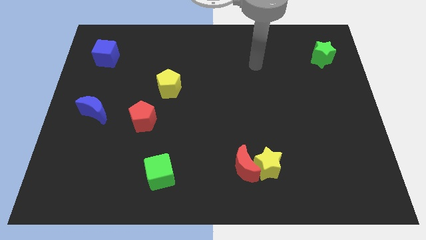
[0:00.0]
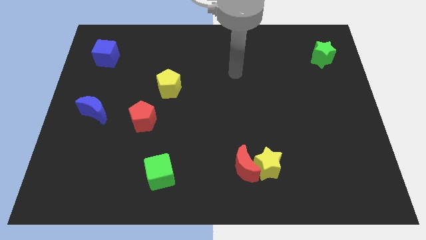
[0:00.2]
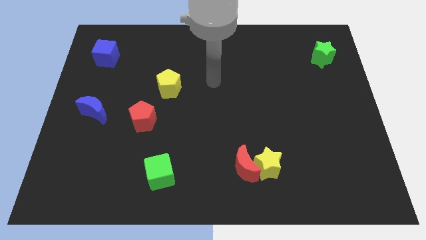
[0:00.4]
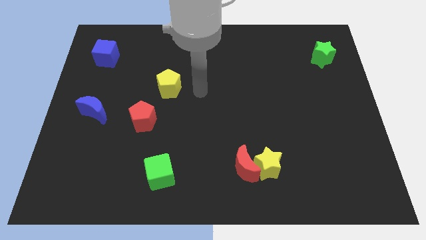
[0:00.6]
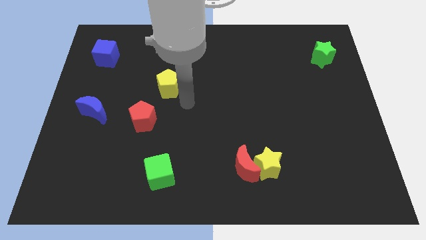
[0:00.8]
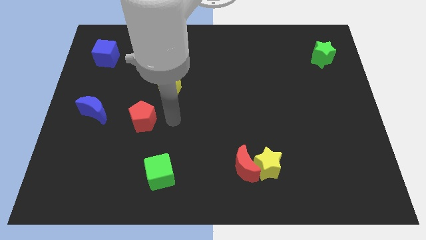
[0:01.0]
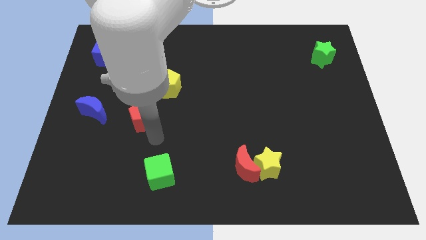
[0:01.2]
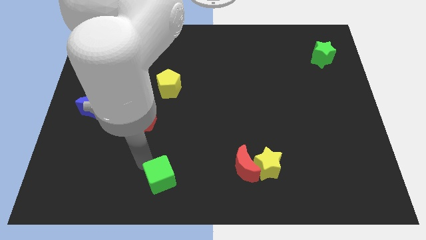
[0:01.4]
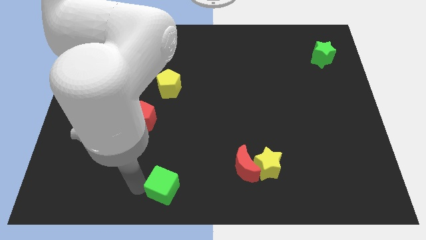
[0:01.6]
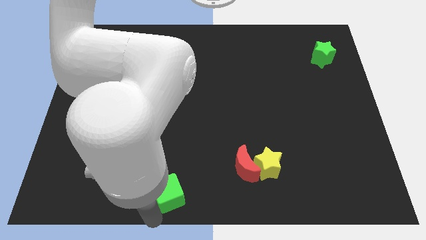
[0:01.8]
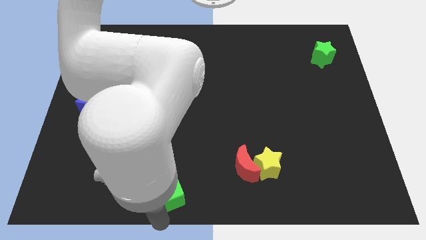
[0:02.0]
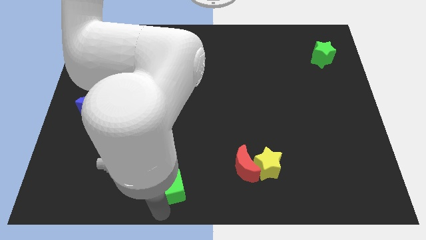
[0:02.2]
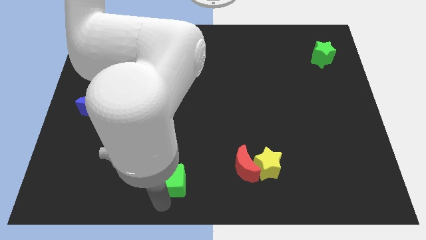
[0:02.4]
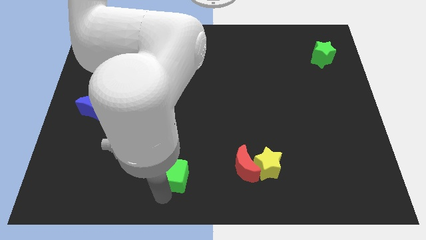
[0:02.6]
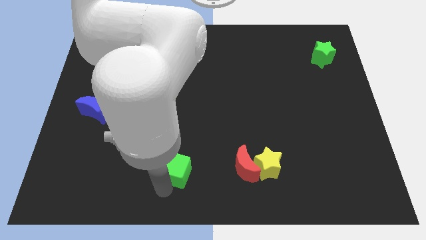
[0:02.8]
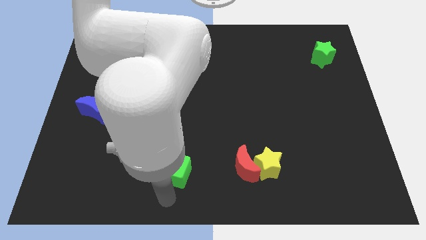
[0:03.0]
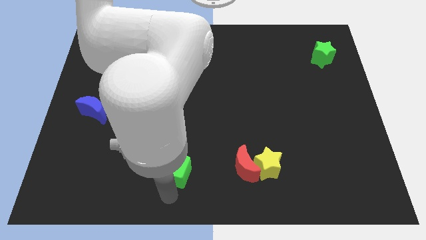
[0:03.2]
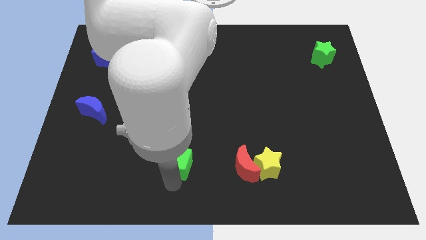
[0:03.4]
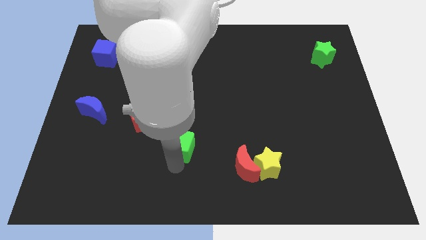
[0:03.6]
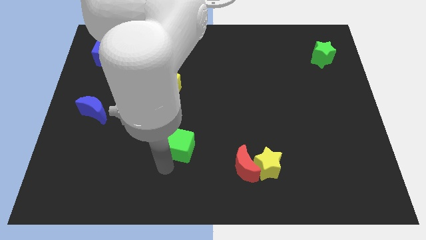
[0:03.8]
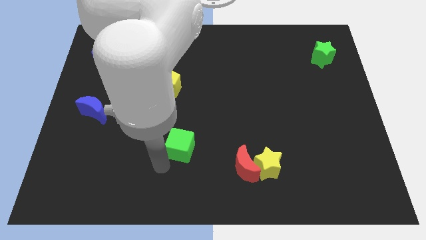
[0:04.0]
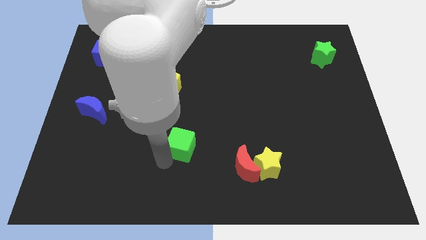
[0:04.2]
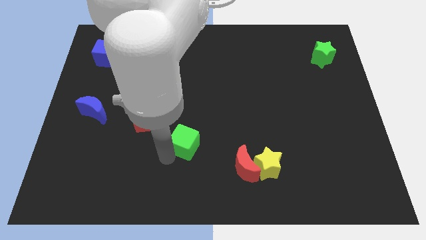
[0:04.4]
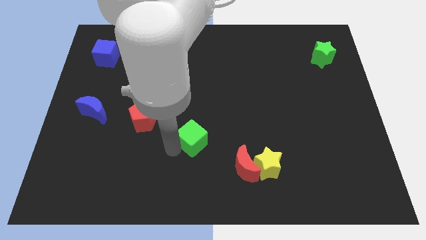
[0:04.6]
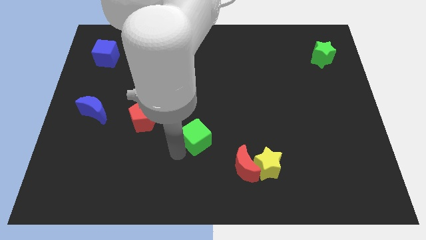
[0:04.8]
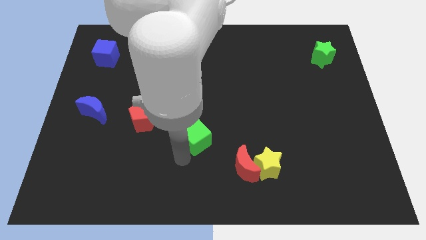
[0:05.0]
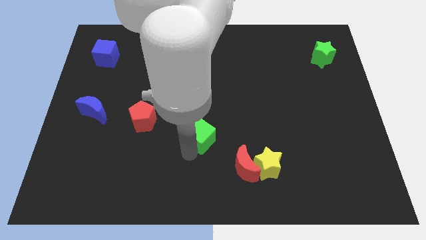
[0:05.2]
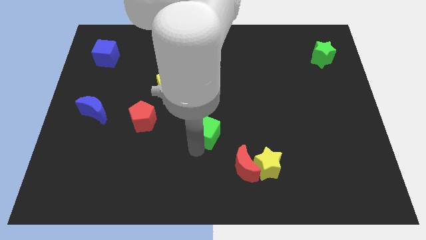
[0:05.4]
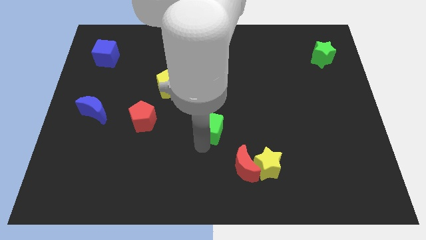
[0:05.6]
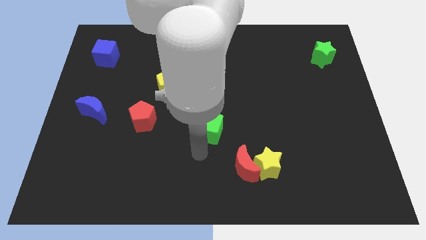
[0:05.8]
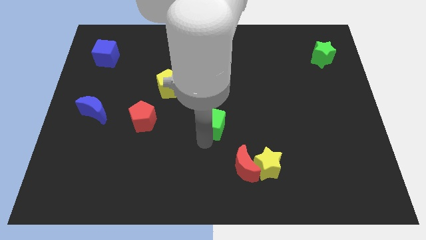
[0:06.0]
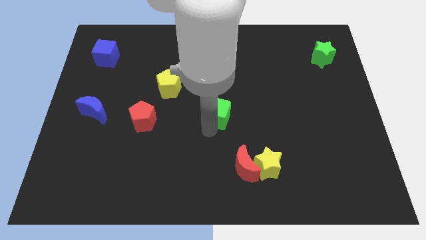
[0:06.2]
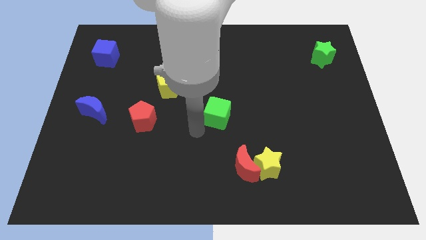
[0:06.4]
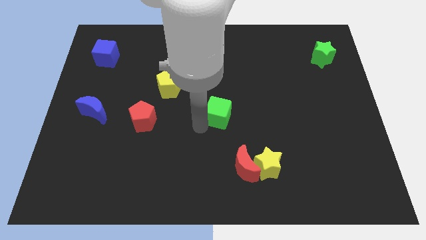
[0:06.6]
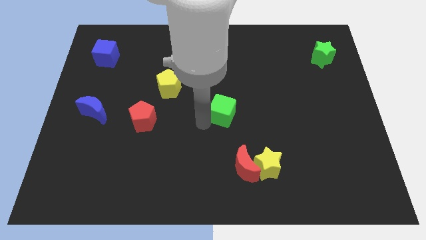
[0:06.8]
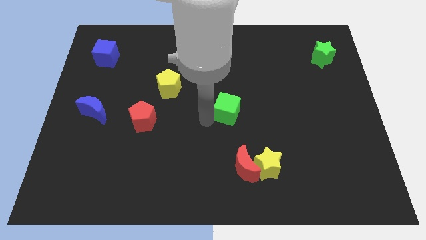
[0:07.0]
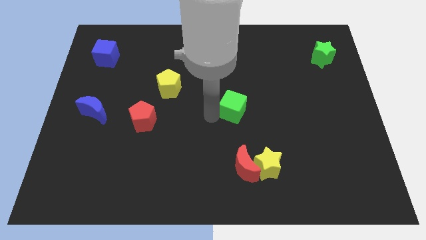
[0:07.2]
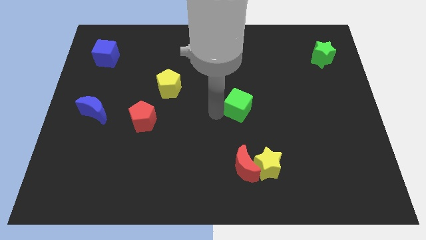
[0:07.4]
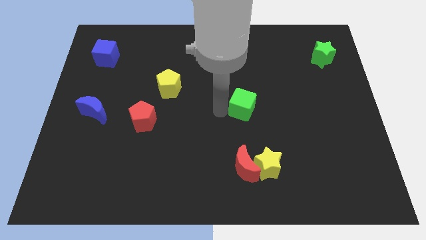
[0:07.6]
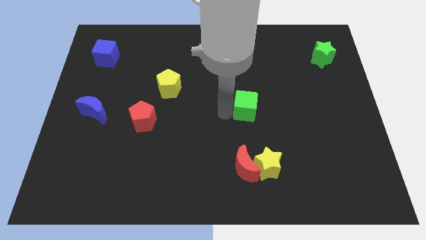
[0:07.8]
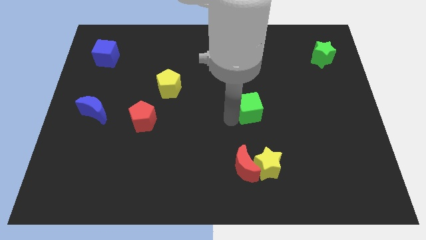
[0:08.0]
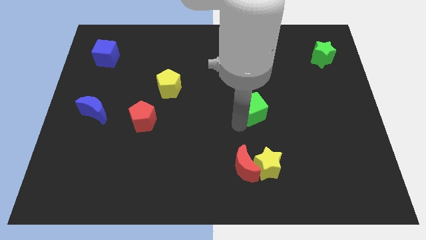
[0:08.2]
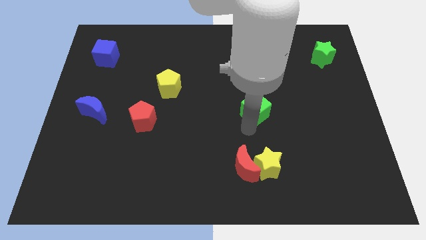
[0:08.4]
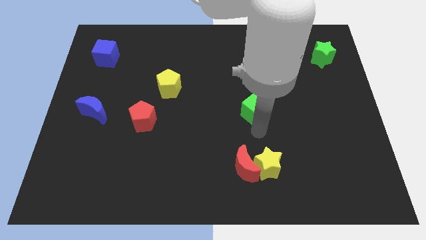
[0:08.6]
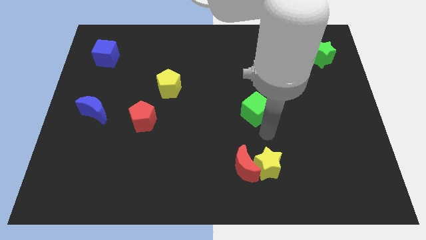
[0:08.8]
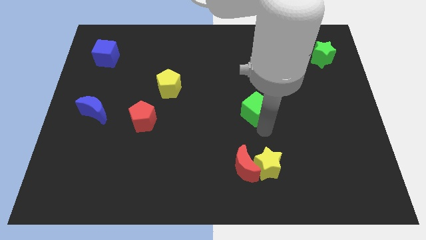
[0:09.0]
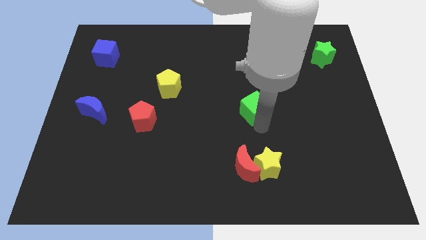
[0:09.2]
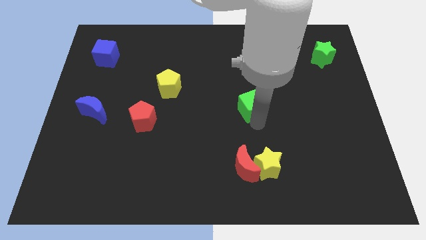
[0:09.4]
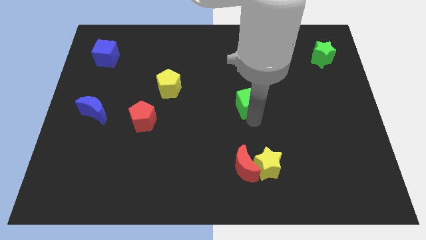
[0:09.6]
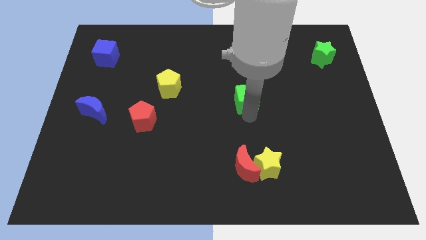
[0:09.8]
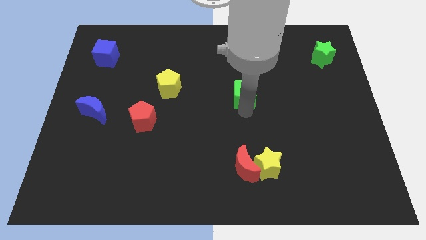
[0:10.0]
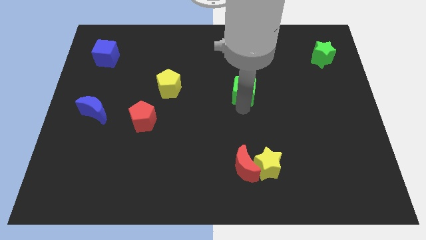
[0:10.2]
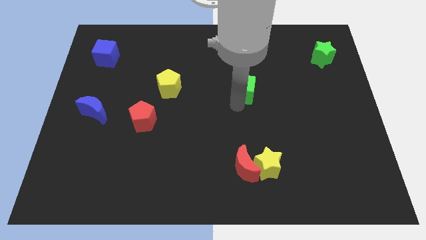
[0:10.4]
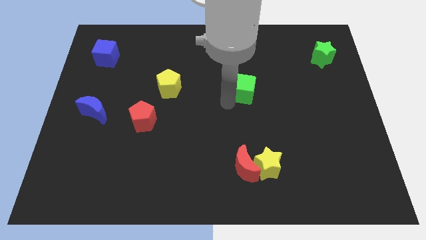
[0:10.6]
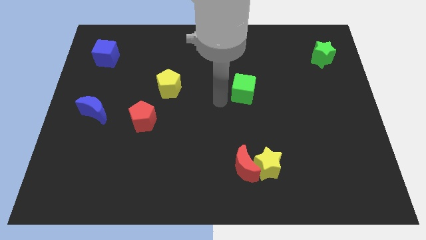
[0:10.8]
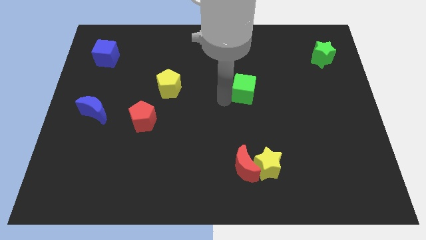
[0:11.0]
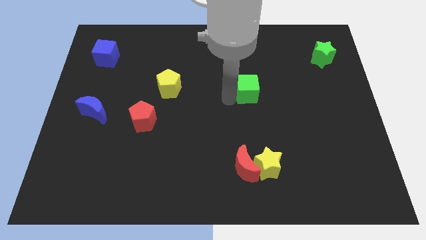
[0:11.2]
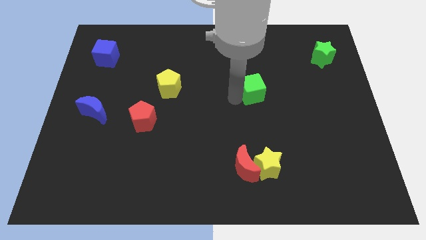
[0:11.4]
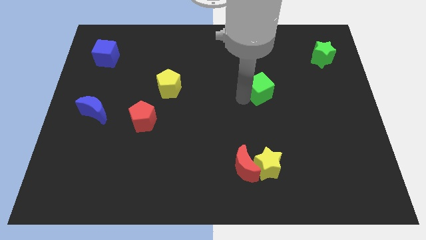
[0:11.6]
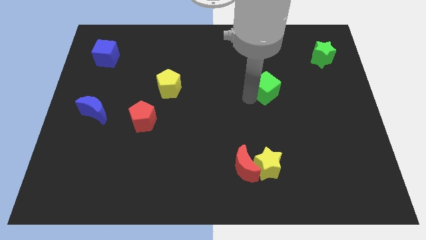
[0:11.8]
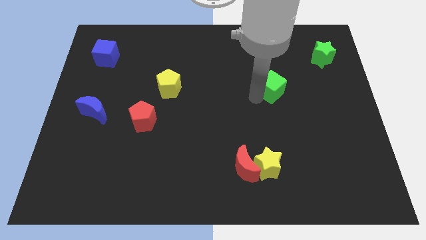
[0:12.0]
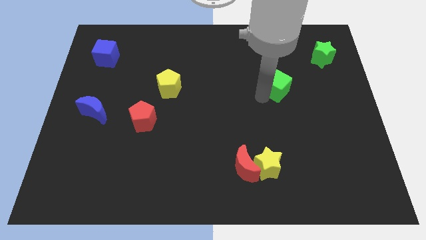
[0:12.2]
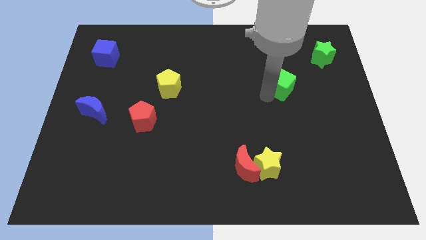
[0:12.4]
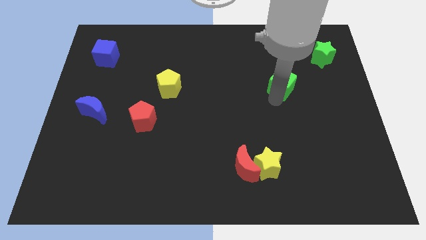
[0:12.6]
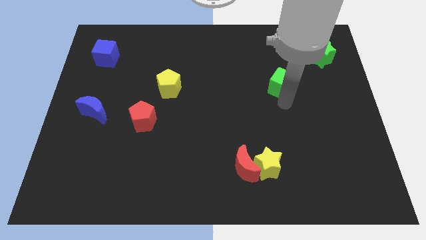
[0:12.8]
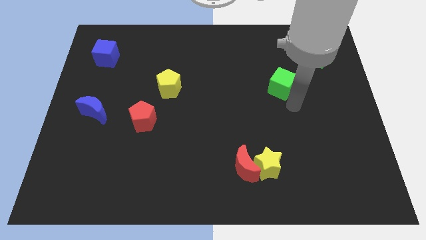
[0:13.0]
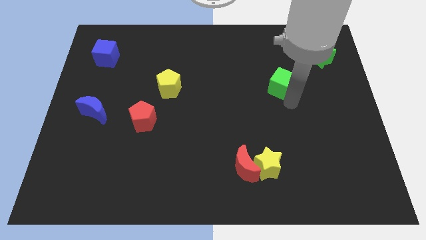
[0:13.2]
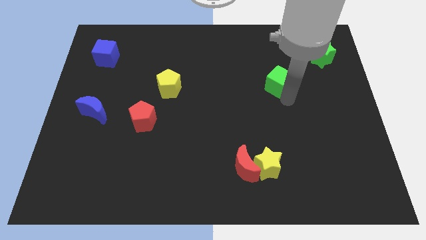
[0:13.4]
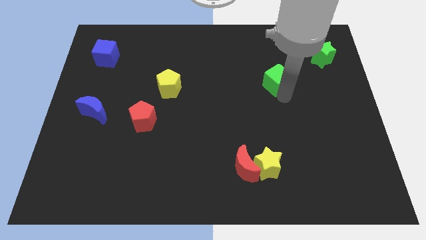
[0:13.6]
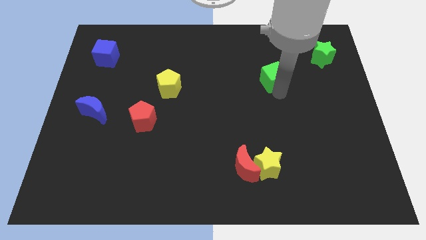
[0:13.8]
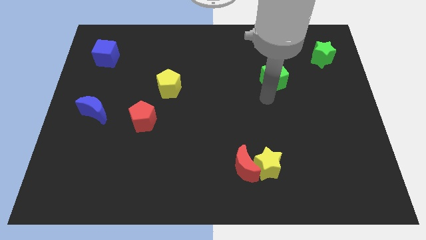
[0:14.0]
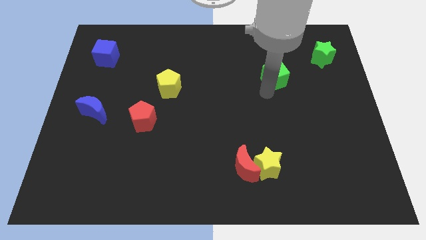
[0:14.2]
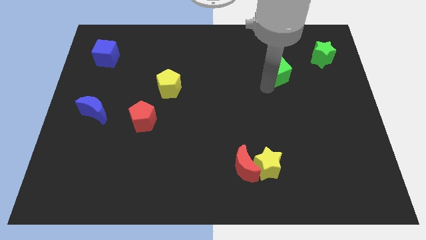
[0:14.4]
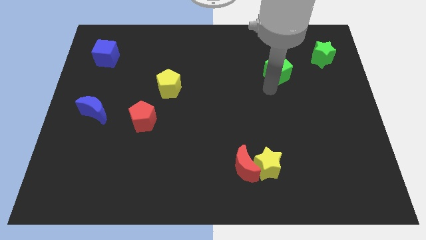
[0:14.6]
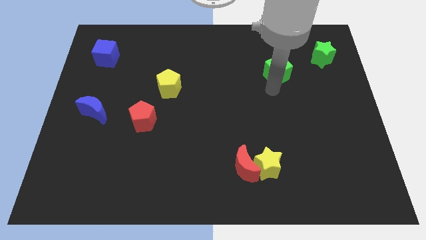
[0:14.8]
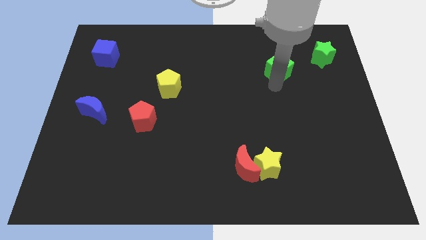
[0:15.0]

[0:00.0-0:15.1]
move the green cube just left of the green star
